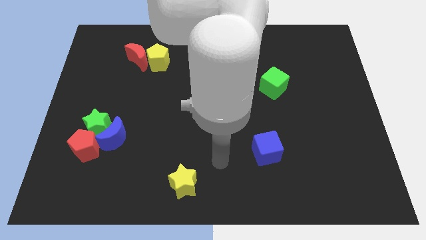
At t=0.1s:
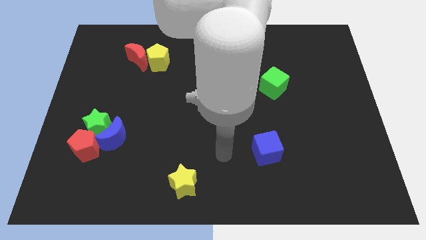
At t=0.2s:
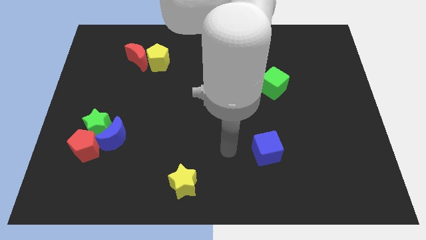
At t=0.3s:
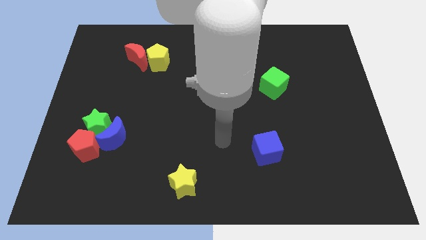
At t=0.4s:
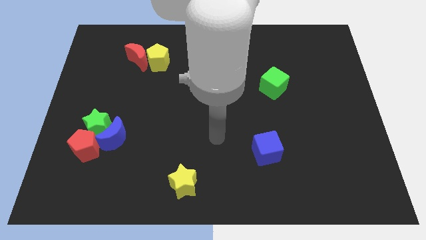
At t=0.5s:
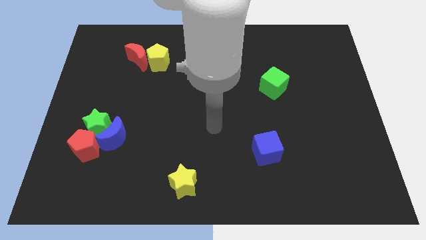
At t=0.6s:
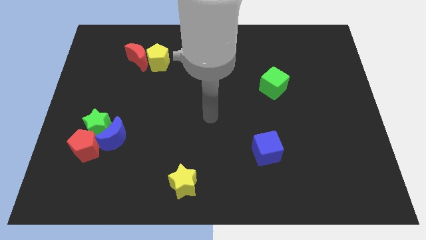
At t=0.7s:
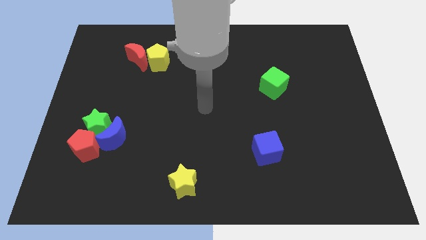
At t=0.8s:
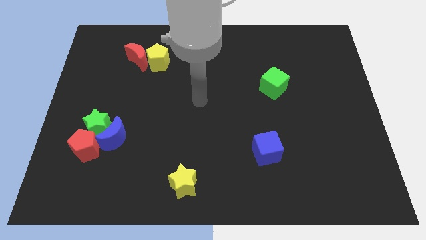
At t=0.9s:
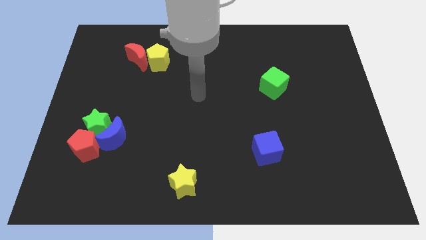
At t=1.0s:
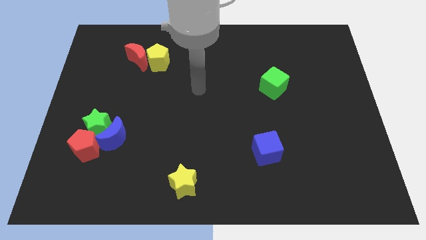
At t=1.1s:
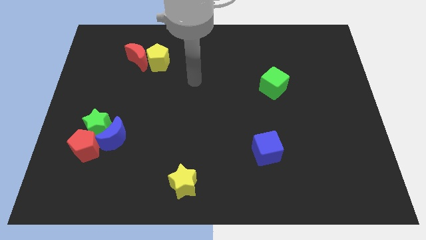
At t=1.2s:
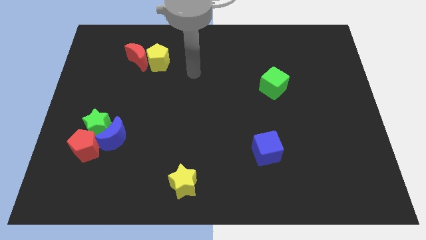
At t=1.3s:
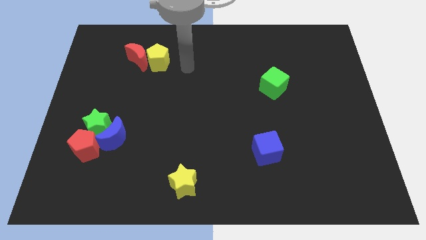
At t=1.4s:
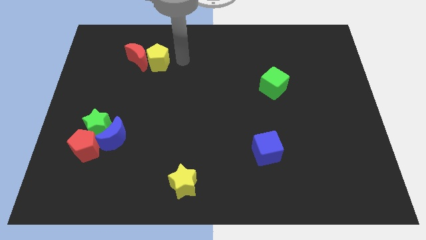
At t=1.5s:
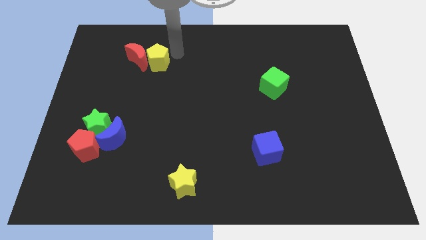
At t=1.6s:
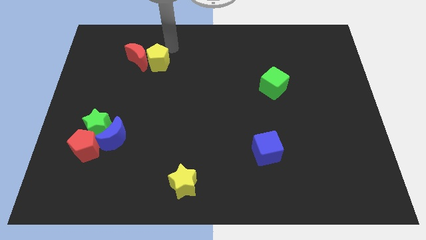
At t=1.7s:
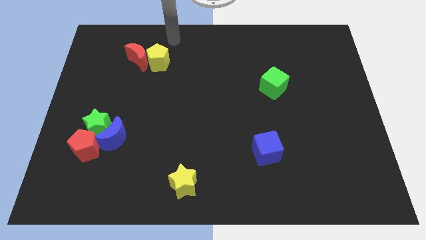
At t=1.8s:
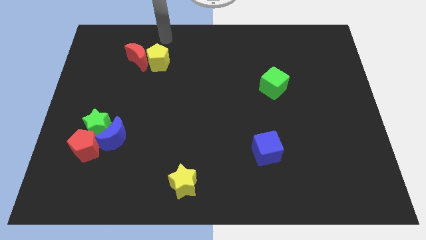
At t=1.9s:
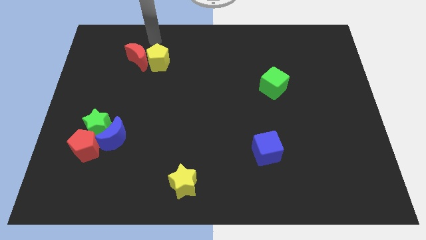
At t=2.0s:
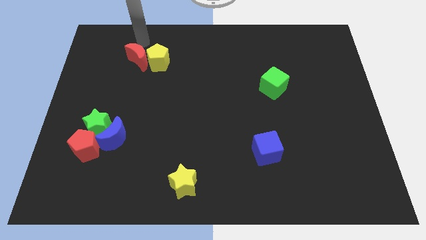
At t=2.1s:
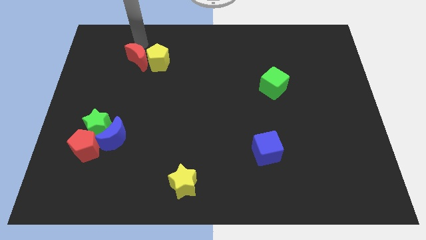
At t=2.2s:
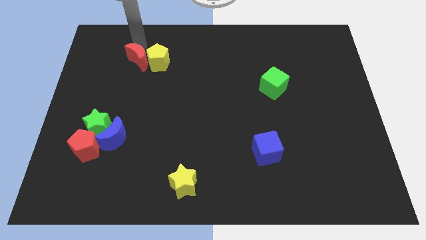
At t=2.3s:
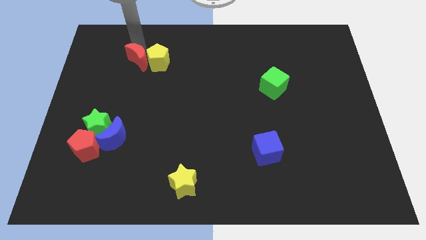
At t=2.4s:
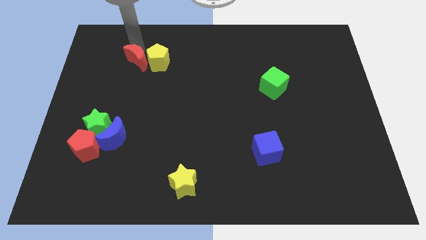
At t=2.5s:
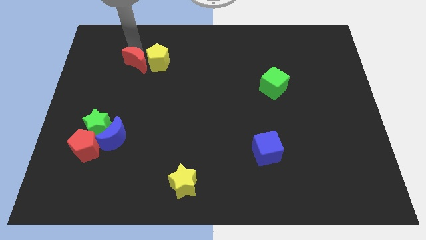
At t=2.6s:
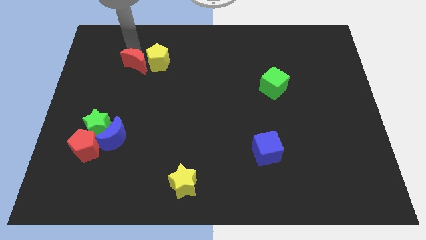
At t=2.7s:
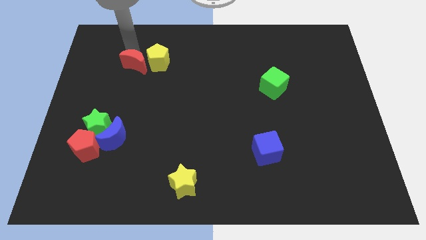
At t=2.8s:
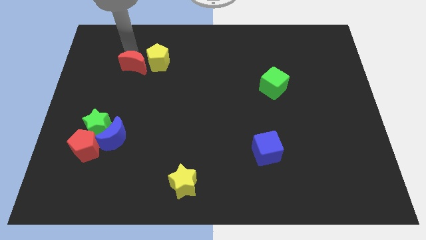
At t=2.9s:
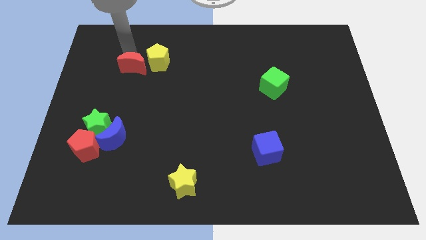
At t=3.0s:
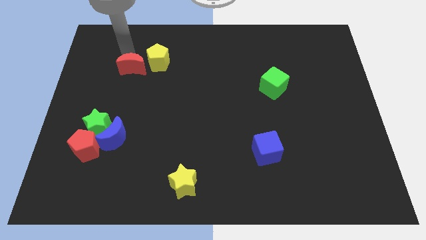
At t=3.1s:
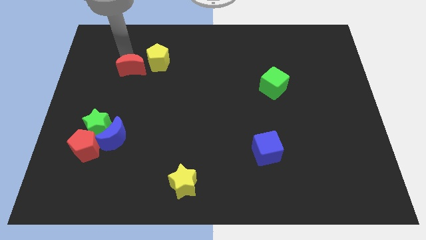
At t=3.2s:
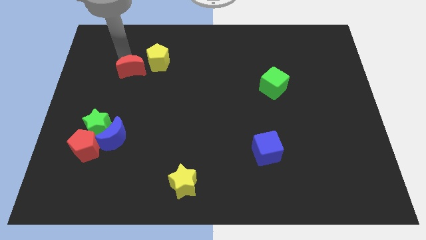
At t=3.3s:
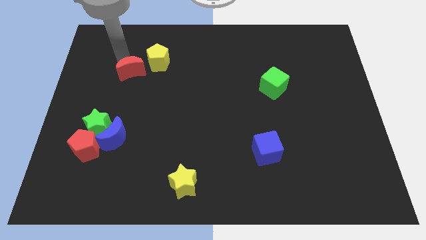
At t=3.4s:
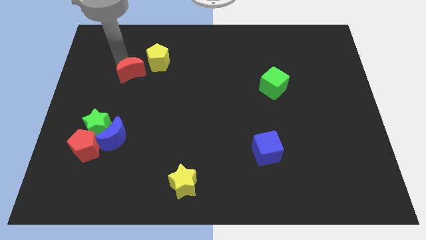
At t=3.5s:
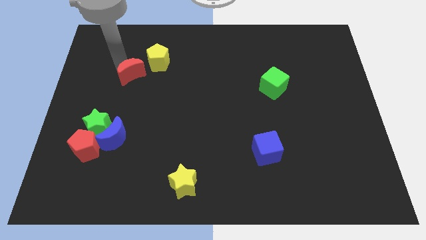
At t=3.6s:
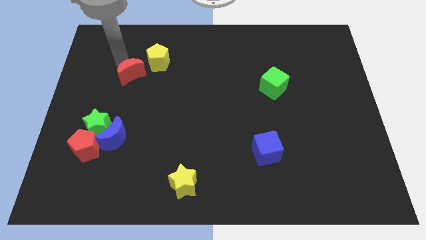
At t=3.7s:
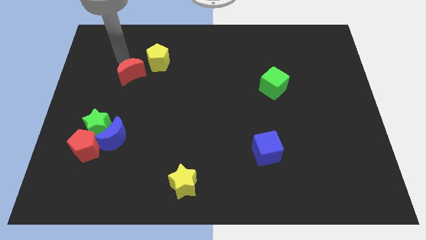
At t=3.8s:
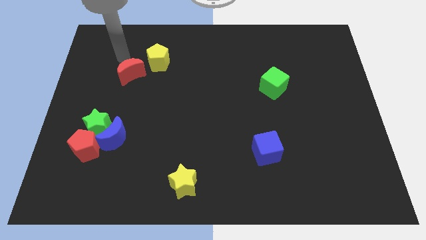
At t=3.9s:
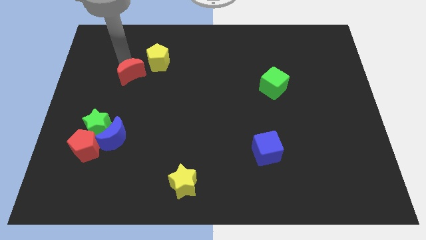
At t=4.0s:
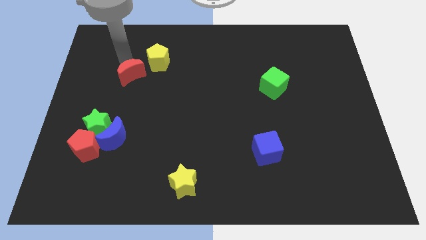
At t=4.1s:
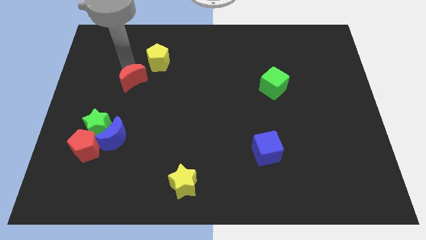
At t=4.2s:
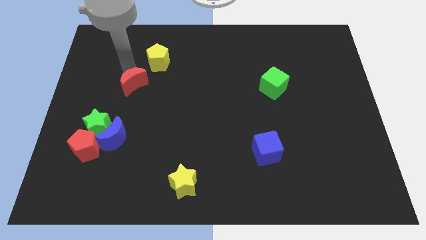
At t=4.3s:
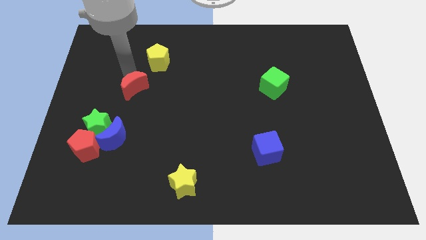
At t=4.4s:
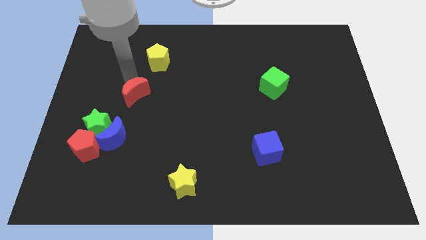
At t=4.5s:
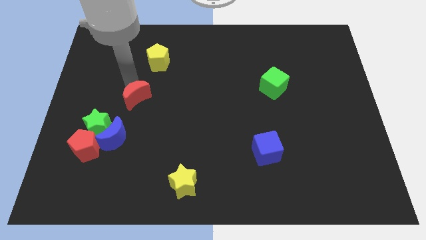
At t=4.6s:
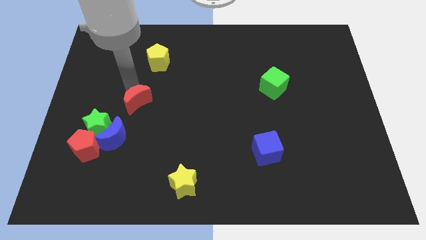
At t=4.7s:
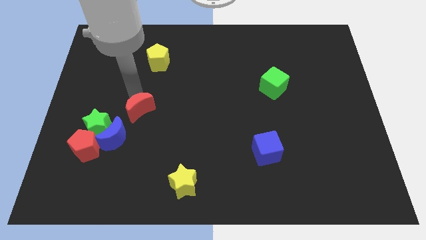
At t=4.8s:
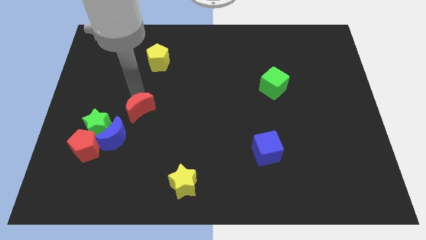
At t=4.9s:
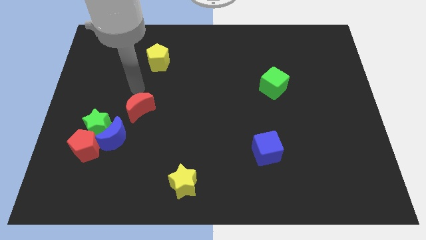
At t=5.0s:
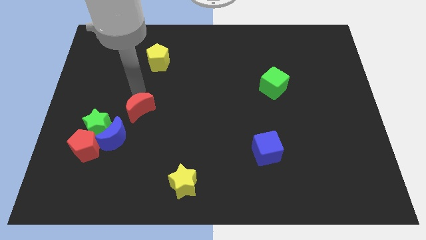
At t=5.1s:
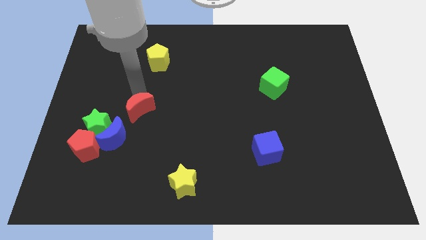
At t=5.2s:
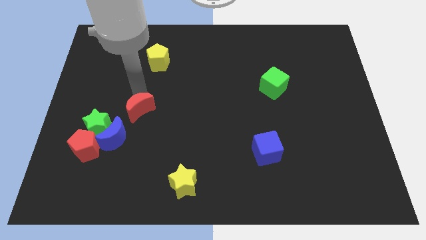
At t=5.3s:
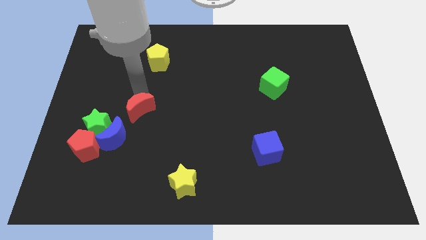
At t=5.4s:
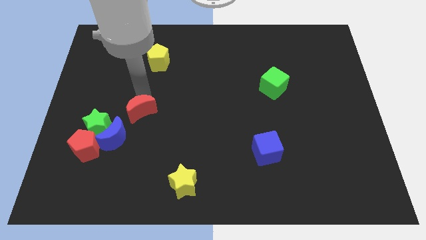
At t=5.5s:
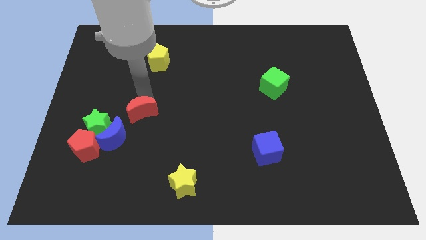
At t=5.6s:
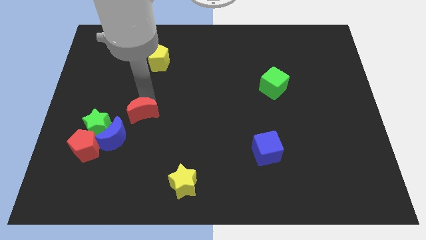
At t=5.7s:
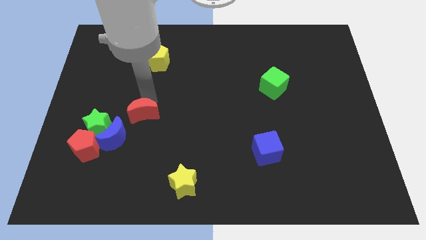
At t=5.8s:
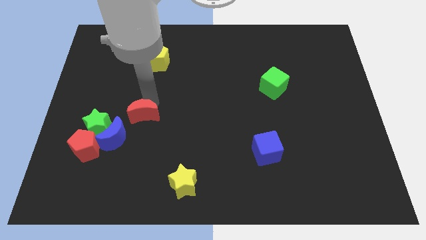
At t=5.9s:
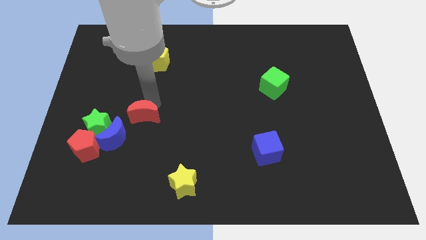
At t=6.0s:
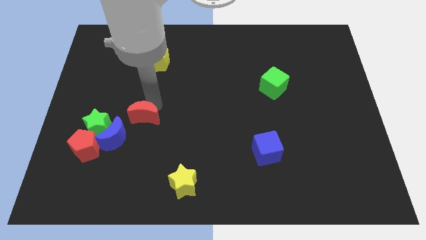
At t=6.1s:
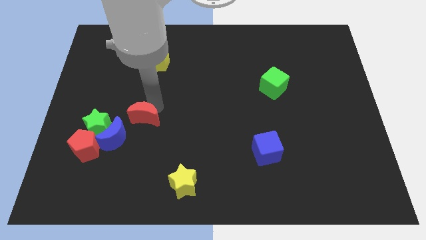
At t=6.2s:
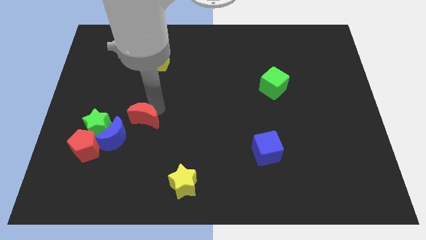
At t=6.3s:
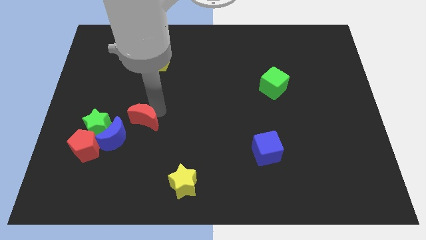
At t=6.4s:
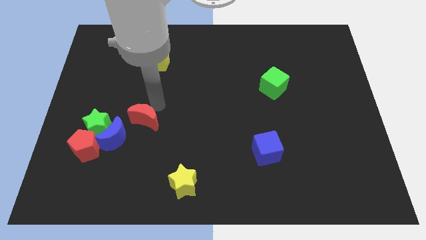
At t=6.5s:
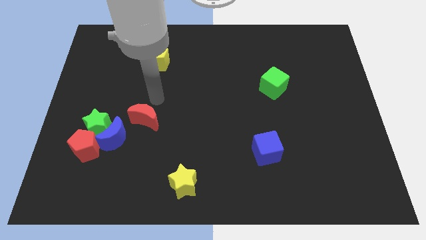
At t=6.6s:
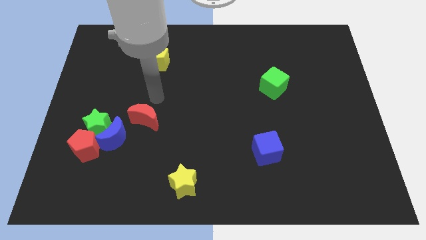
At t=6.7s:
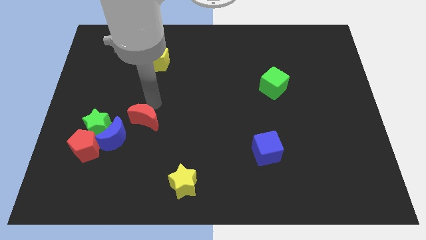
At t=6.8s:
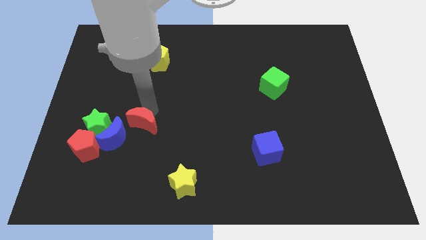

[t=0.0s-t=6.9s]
move the red moon down

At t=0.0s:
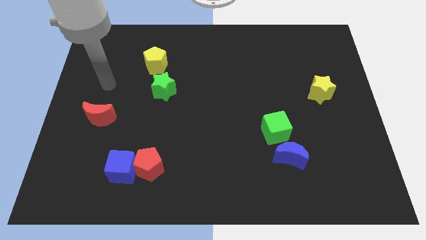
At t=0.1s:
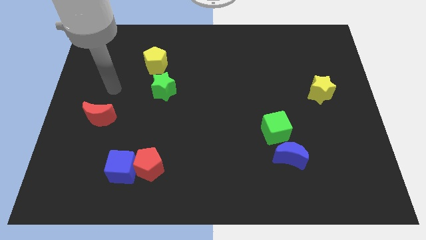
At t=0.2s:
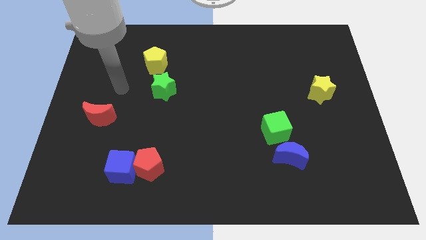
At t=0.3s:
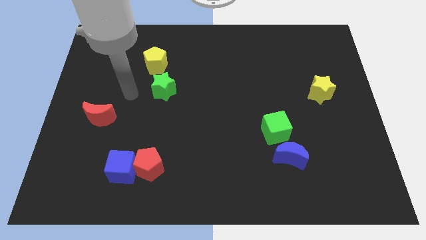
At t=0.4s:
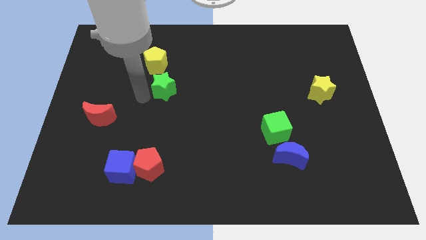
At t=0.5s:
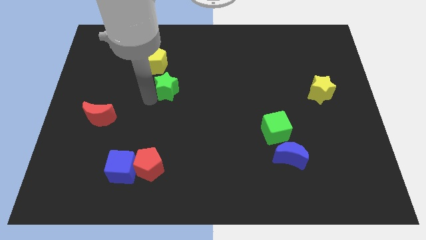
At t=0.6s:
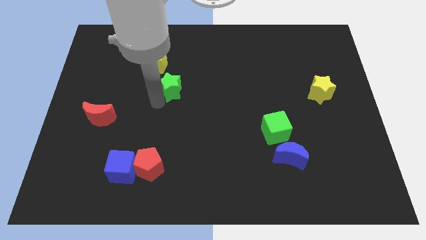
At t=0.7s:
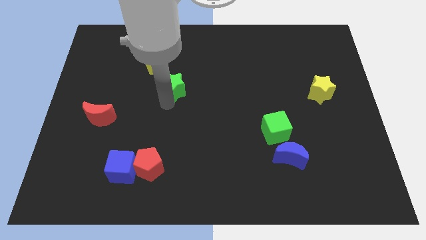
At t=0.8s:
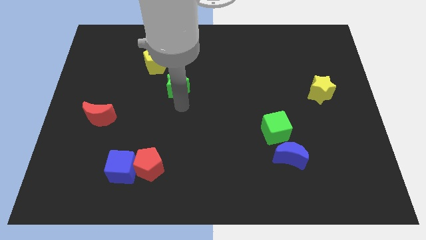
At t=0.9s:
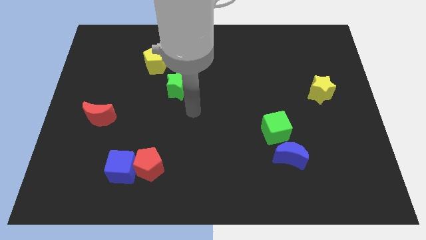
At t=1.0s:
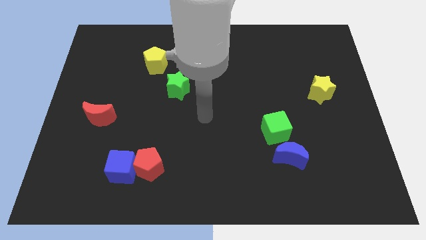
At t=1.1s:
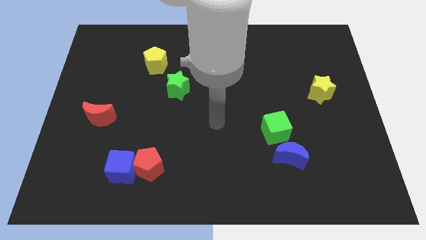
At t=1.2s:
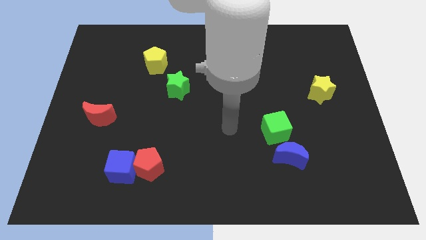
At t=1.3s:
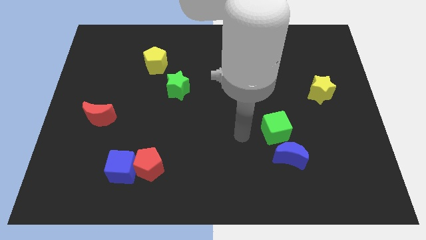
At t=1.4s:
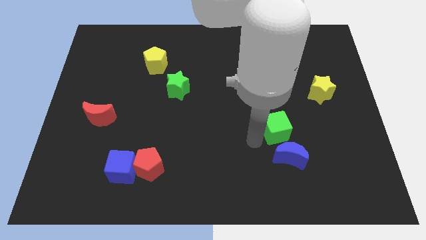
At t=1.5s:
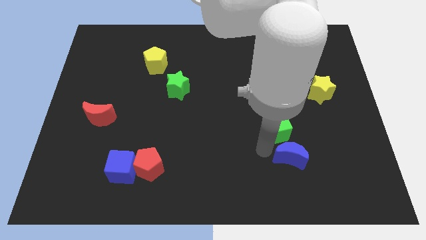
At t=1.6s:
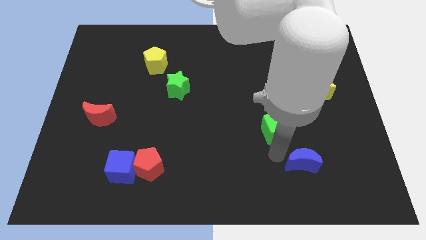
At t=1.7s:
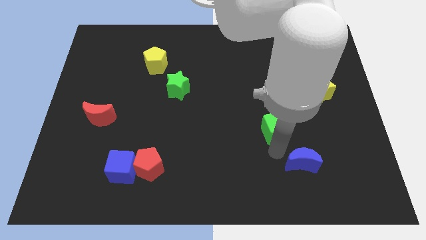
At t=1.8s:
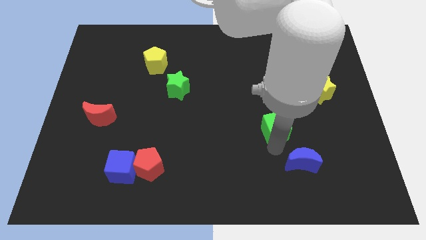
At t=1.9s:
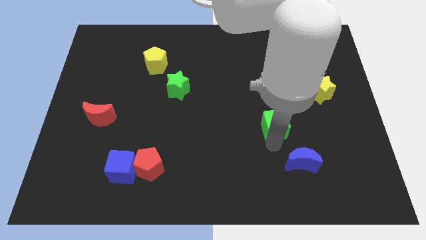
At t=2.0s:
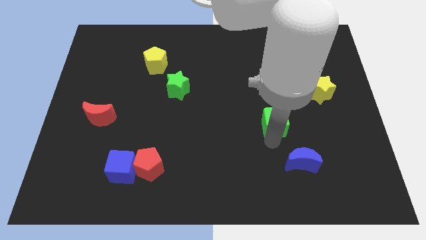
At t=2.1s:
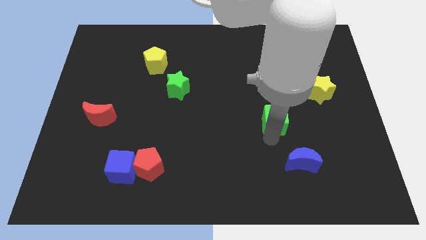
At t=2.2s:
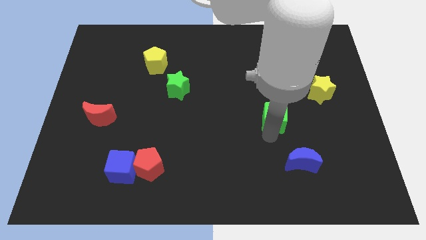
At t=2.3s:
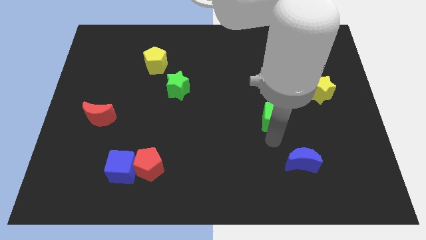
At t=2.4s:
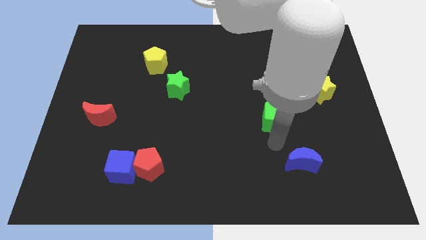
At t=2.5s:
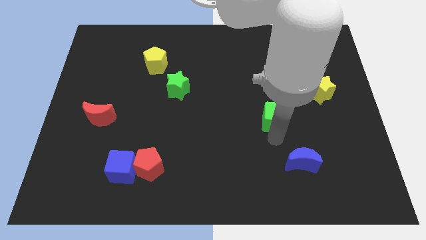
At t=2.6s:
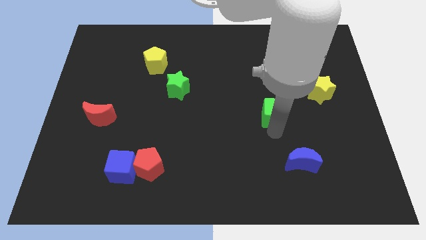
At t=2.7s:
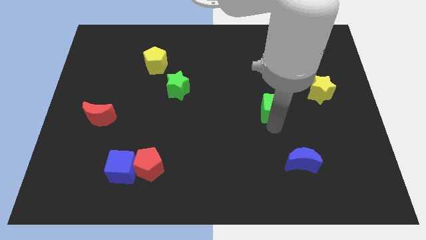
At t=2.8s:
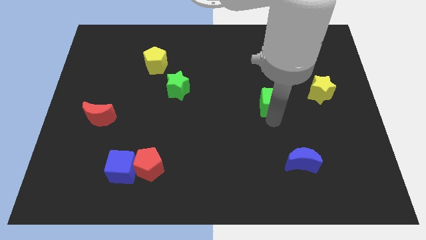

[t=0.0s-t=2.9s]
slide the green cube a little upwards
